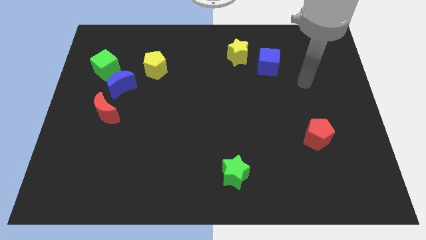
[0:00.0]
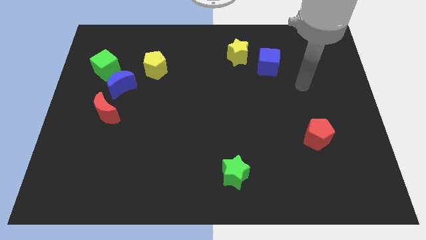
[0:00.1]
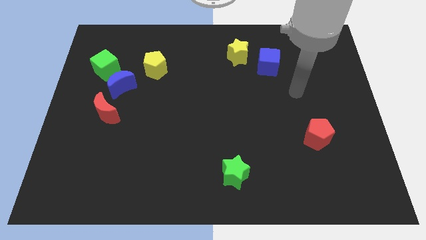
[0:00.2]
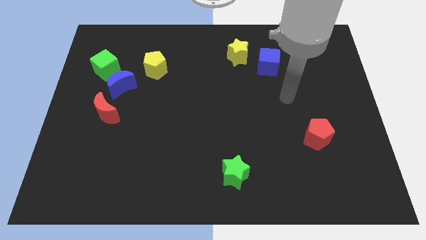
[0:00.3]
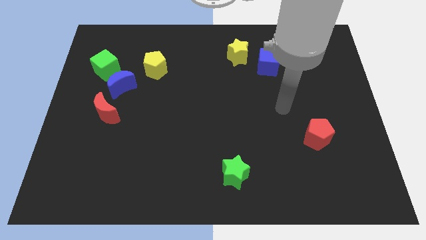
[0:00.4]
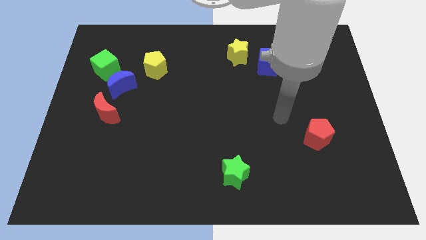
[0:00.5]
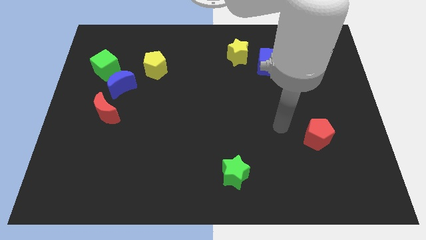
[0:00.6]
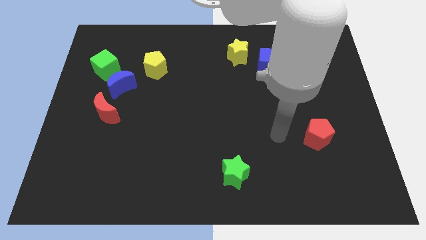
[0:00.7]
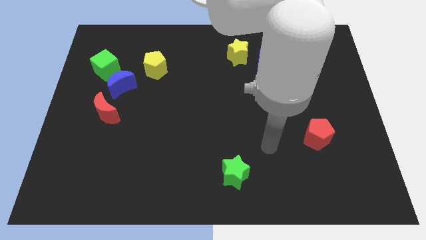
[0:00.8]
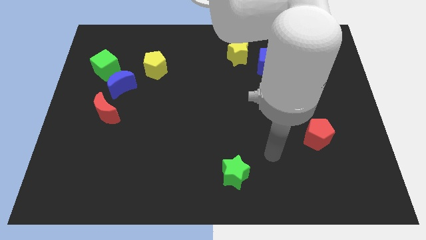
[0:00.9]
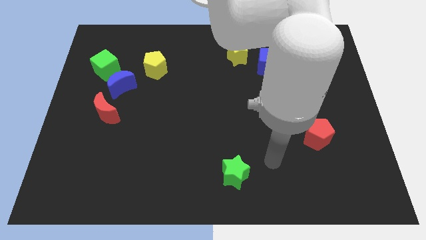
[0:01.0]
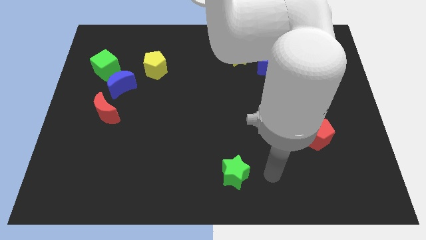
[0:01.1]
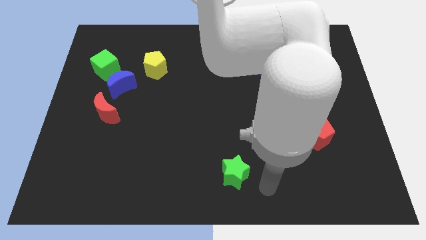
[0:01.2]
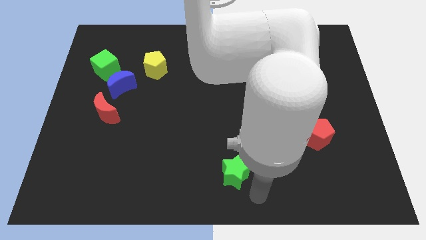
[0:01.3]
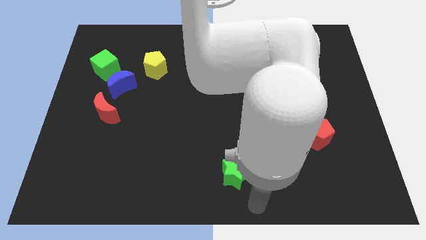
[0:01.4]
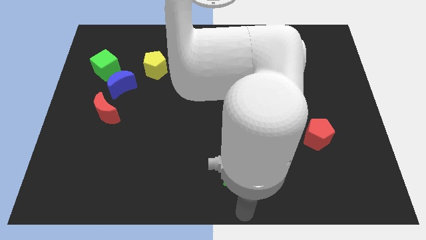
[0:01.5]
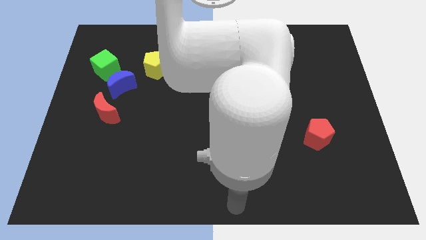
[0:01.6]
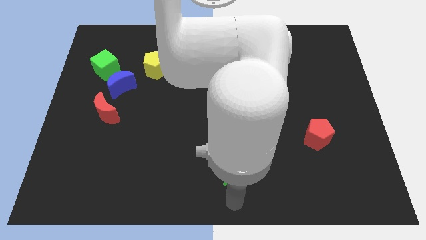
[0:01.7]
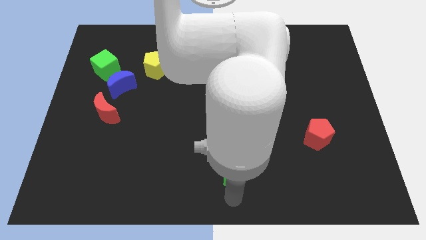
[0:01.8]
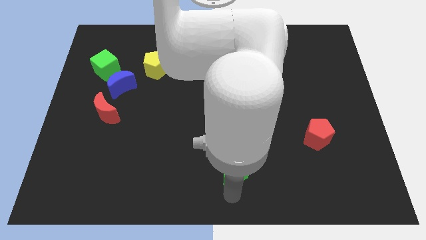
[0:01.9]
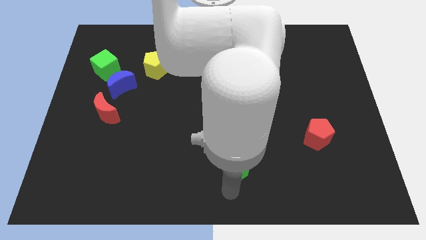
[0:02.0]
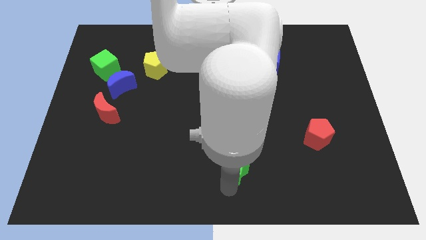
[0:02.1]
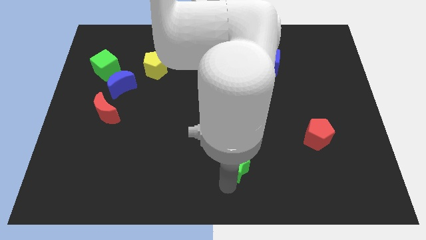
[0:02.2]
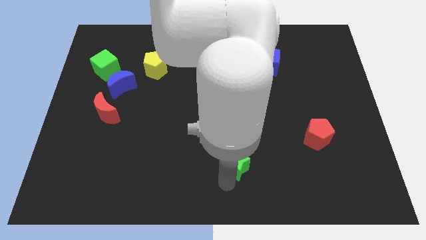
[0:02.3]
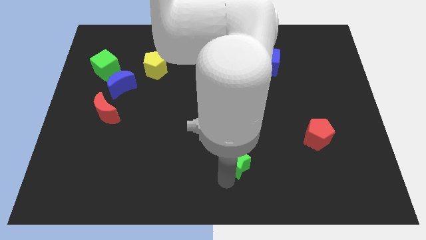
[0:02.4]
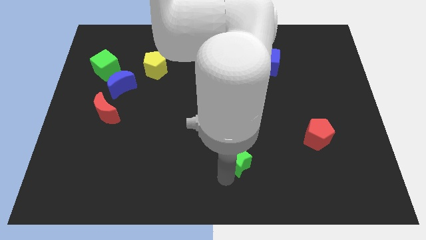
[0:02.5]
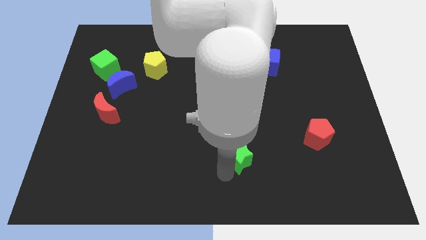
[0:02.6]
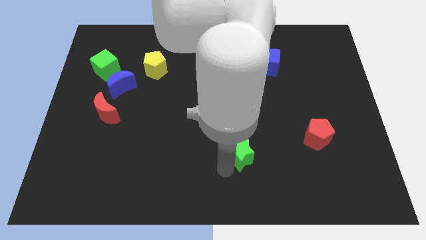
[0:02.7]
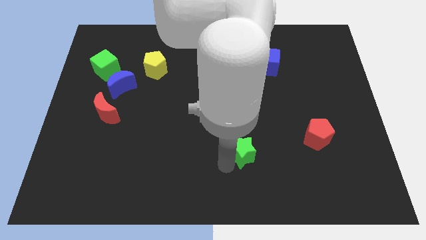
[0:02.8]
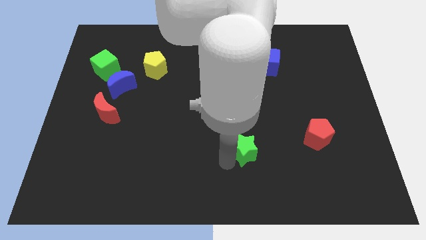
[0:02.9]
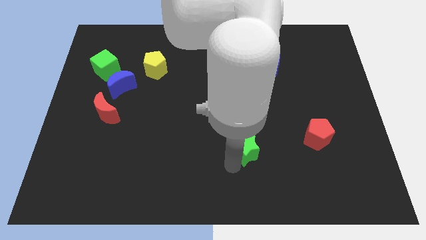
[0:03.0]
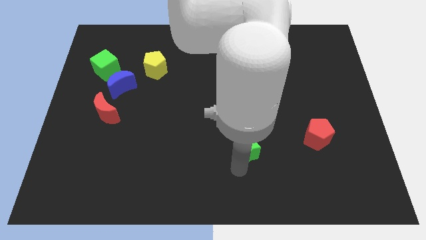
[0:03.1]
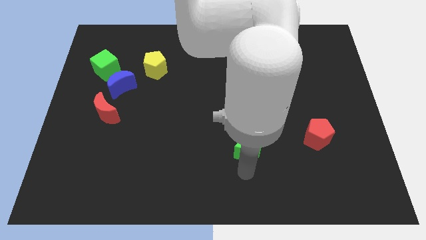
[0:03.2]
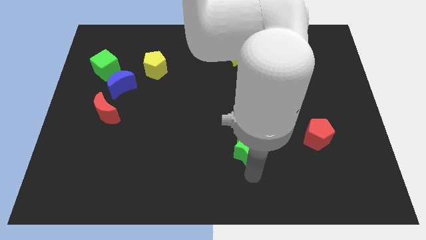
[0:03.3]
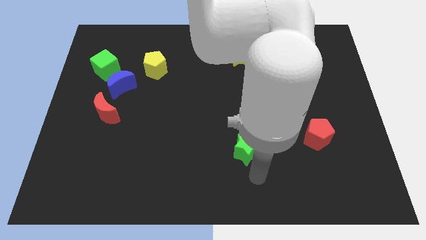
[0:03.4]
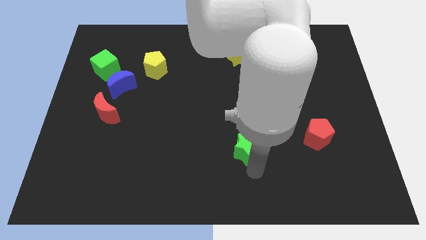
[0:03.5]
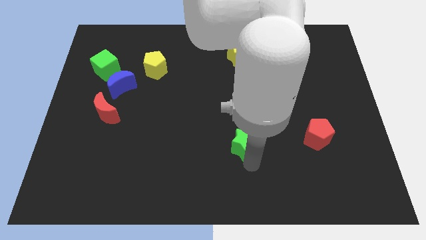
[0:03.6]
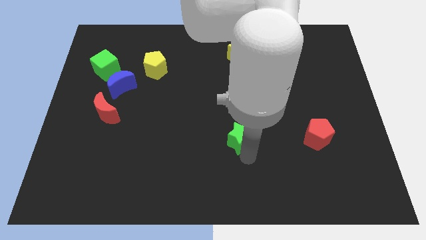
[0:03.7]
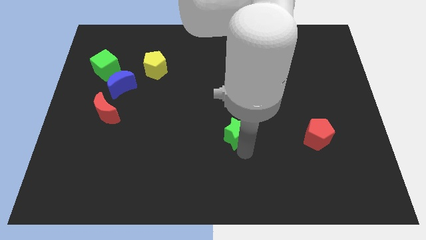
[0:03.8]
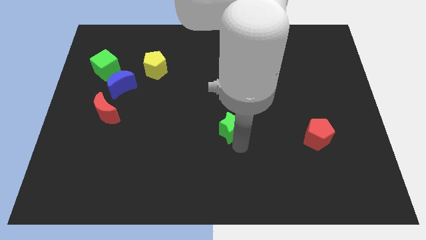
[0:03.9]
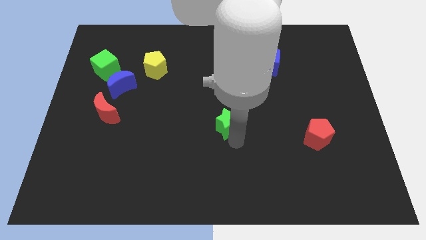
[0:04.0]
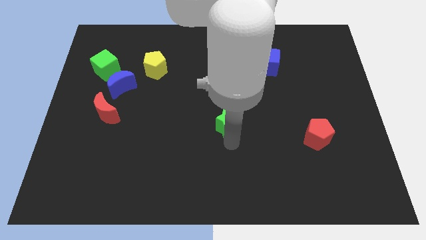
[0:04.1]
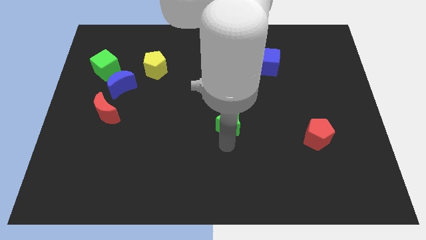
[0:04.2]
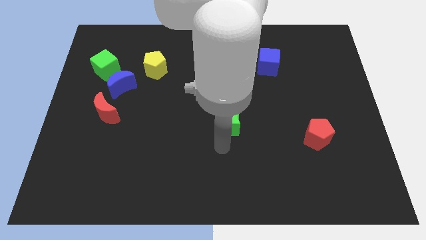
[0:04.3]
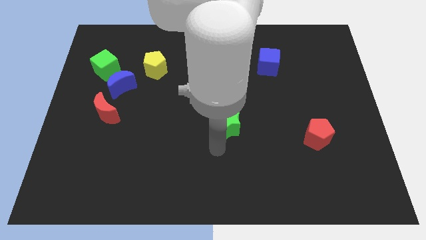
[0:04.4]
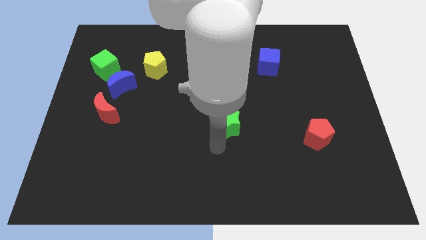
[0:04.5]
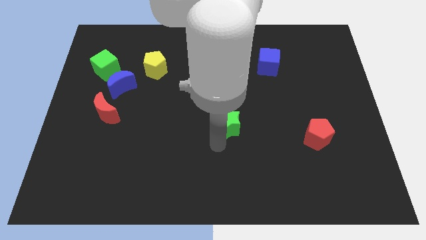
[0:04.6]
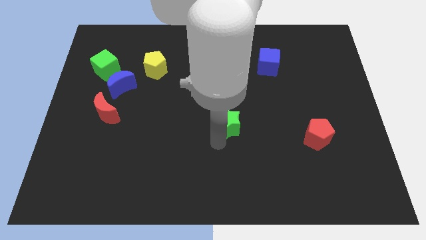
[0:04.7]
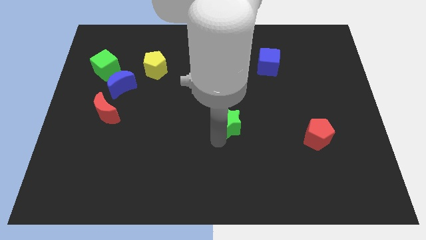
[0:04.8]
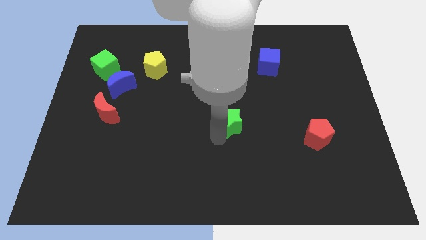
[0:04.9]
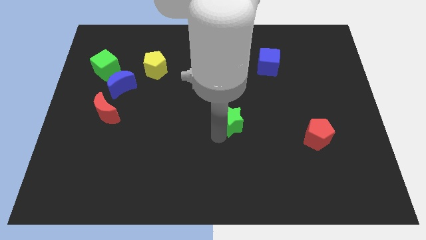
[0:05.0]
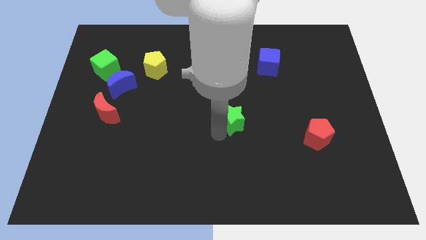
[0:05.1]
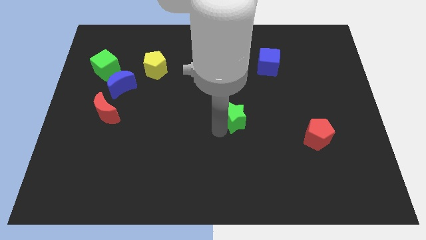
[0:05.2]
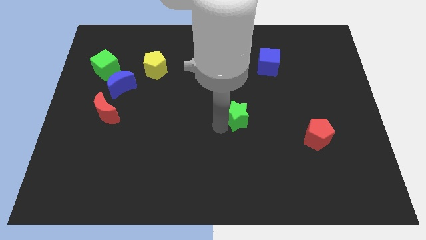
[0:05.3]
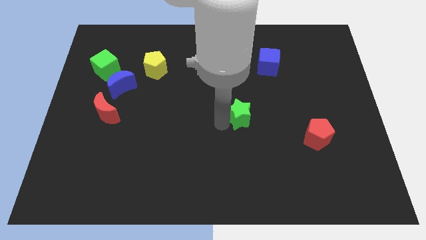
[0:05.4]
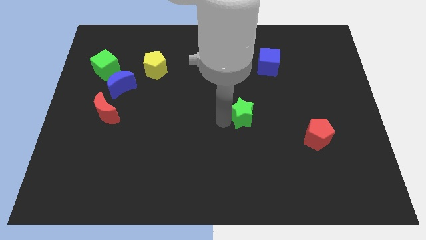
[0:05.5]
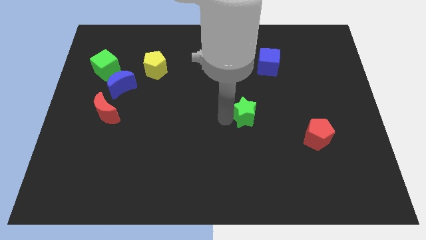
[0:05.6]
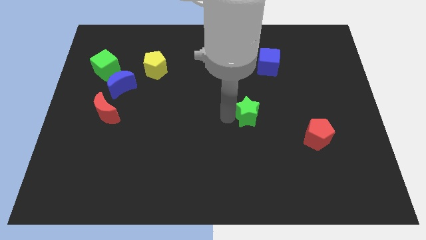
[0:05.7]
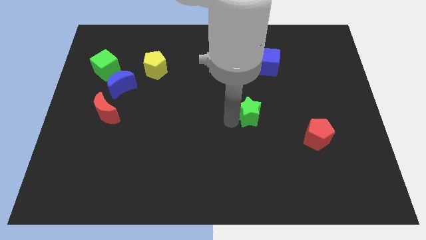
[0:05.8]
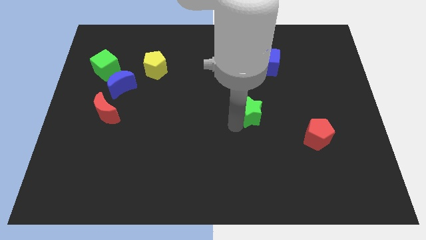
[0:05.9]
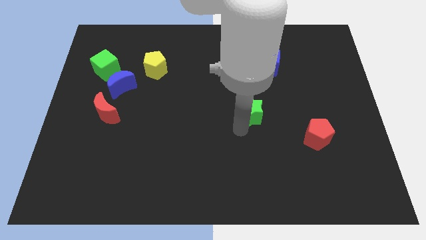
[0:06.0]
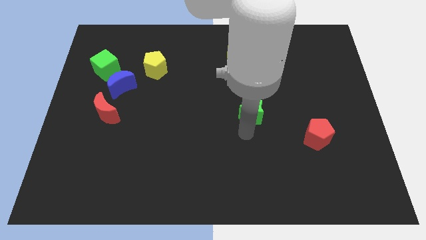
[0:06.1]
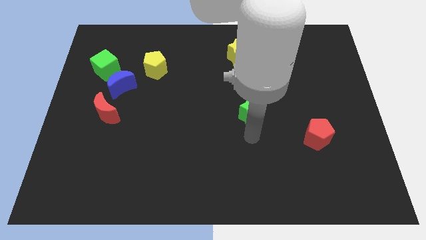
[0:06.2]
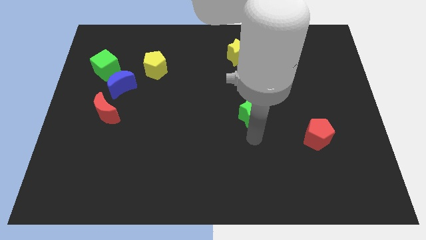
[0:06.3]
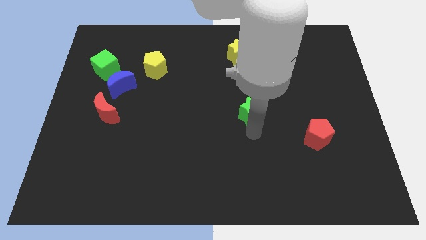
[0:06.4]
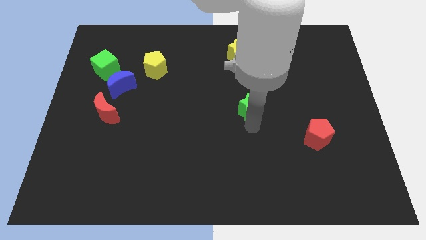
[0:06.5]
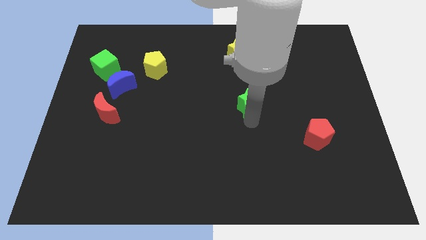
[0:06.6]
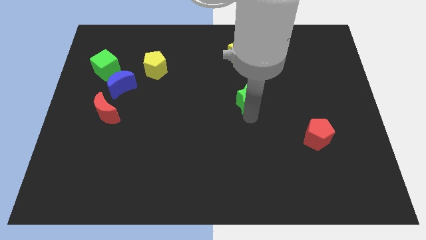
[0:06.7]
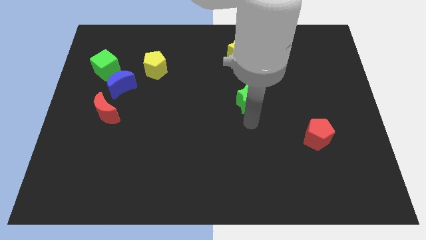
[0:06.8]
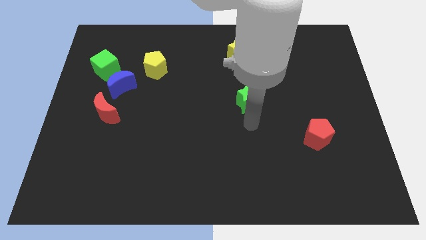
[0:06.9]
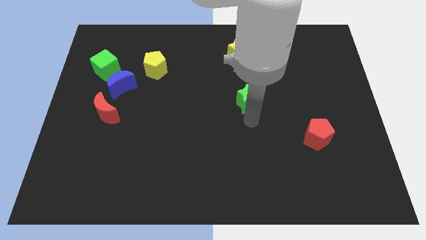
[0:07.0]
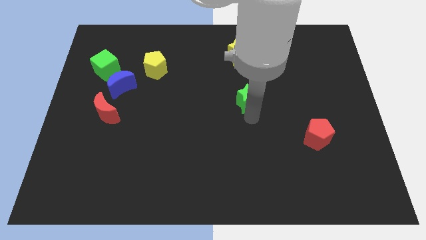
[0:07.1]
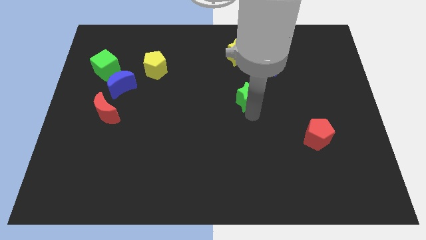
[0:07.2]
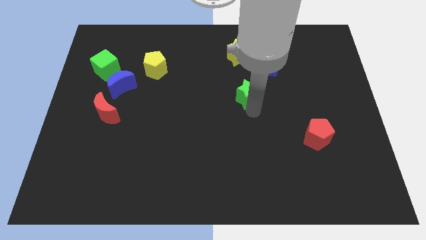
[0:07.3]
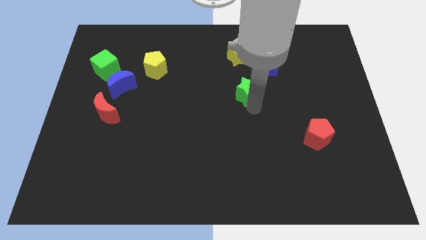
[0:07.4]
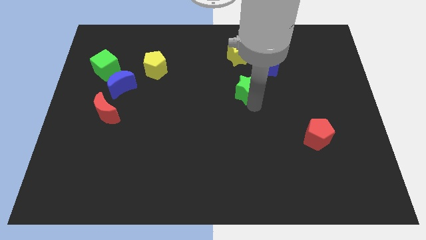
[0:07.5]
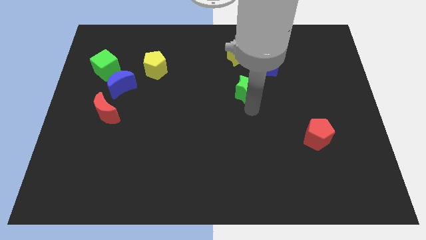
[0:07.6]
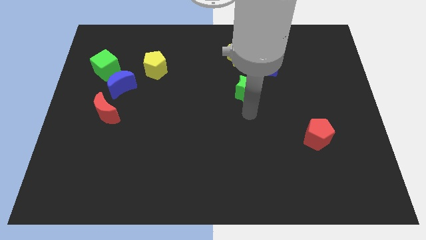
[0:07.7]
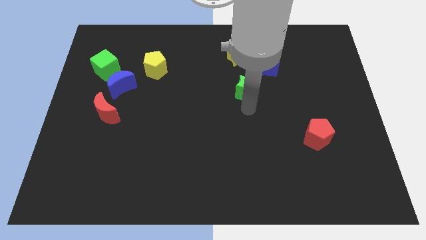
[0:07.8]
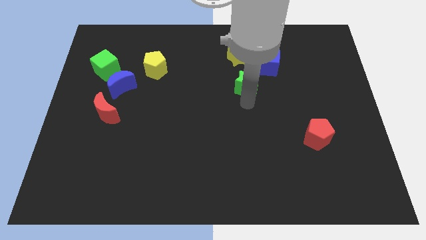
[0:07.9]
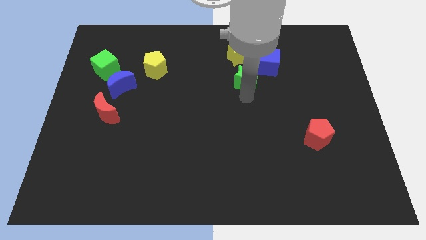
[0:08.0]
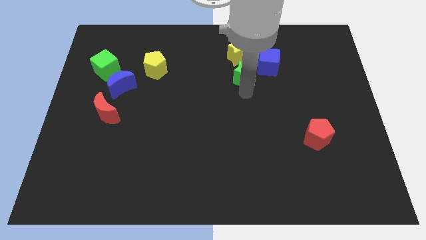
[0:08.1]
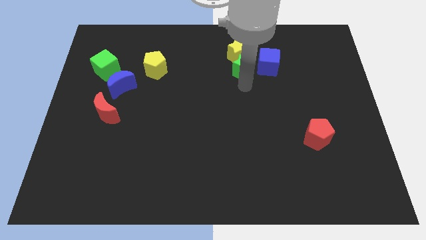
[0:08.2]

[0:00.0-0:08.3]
move the green star to the yellow star
